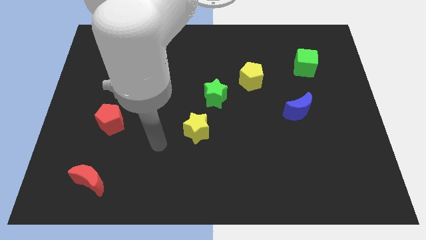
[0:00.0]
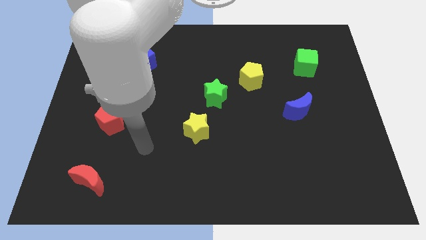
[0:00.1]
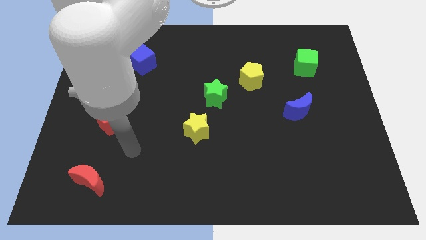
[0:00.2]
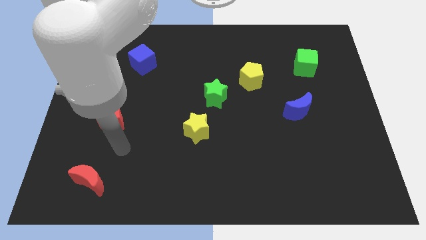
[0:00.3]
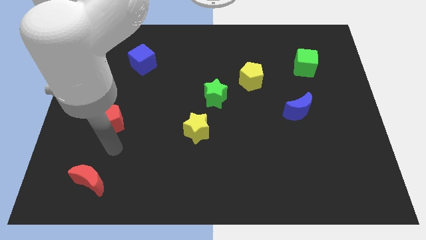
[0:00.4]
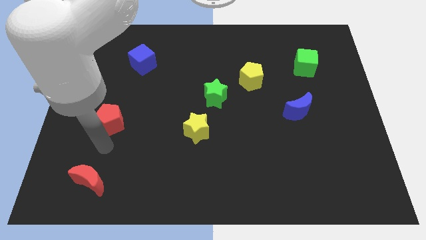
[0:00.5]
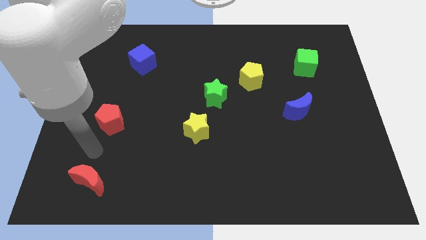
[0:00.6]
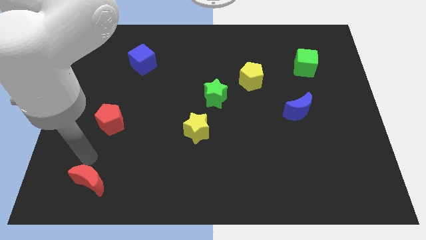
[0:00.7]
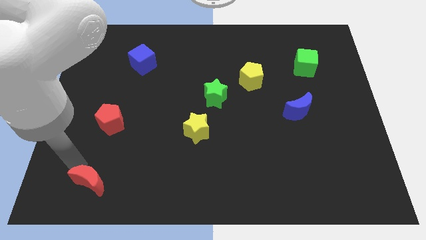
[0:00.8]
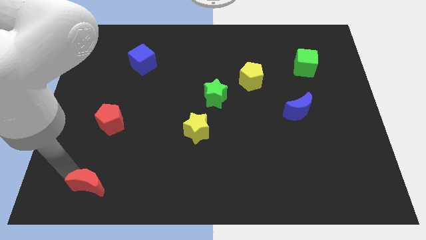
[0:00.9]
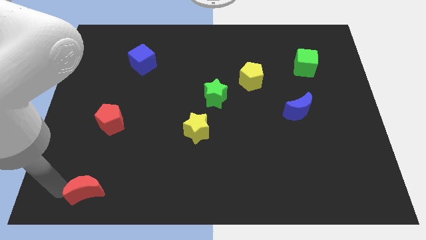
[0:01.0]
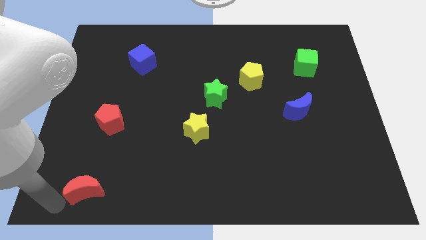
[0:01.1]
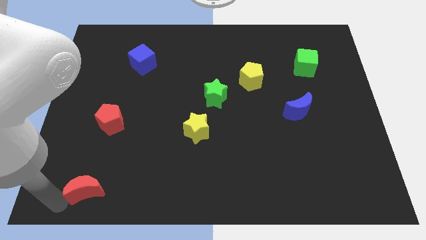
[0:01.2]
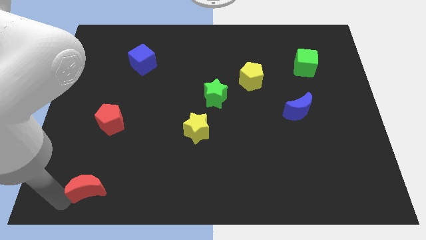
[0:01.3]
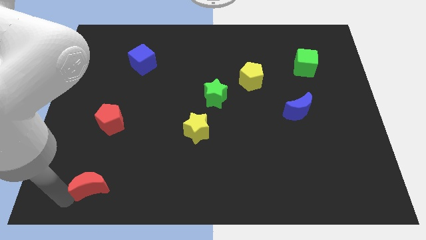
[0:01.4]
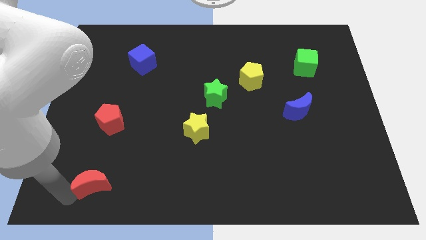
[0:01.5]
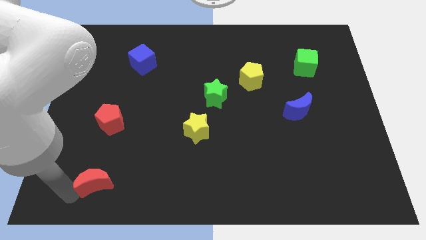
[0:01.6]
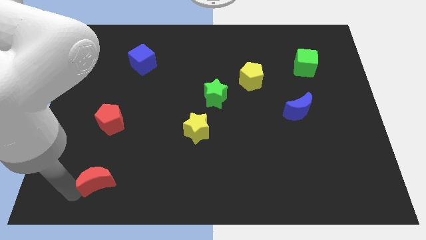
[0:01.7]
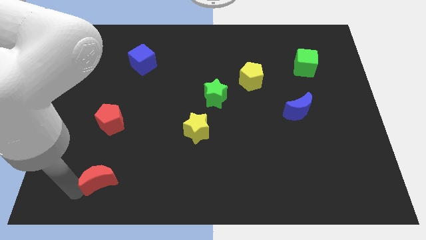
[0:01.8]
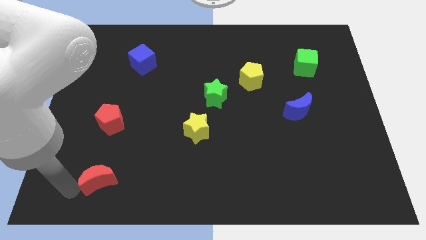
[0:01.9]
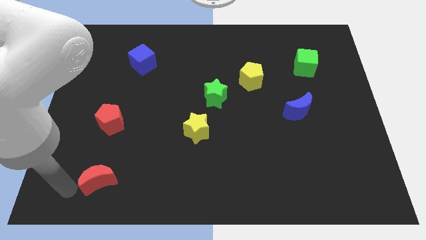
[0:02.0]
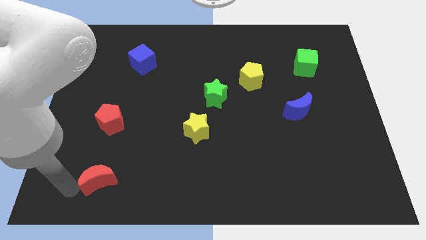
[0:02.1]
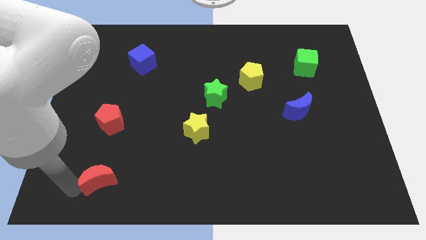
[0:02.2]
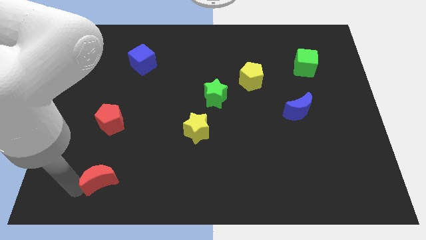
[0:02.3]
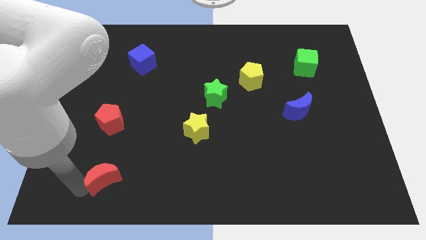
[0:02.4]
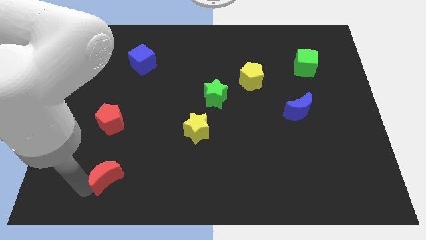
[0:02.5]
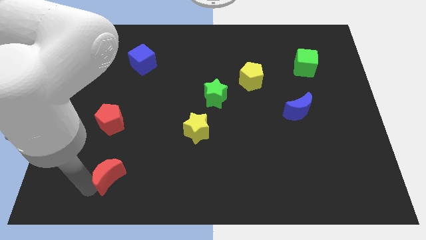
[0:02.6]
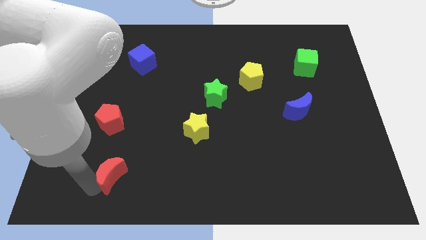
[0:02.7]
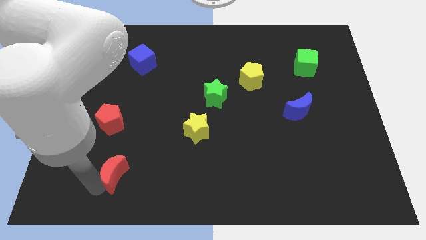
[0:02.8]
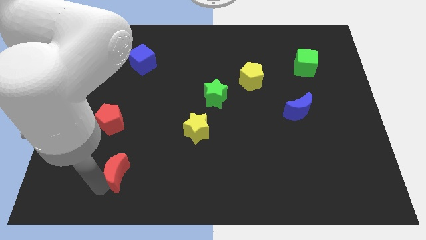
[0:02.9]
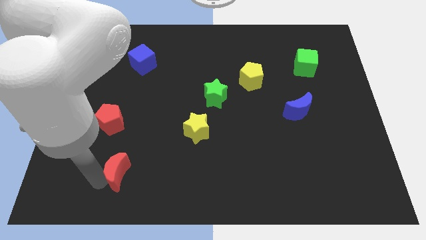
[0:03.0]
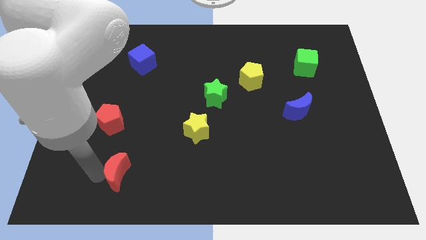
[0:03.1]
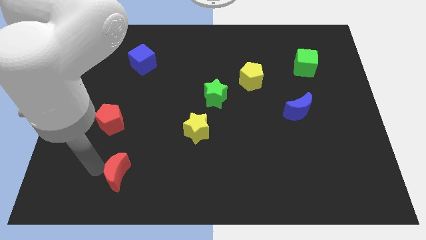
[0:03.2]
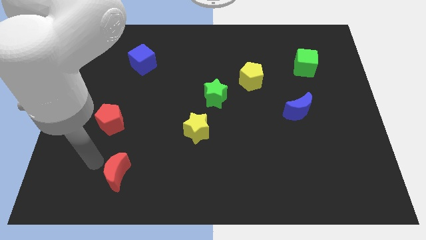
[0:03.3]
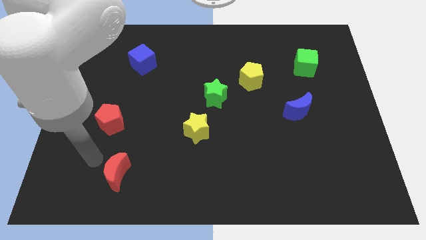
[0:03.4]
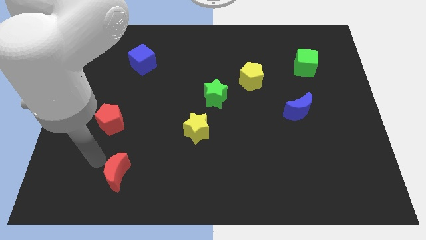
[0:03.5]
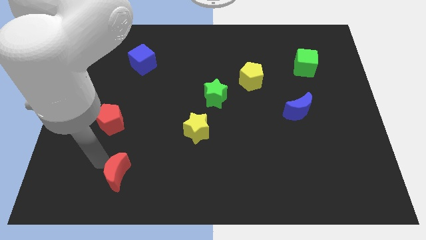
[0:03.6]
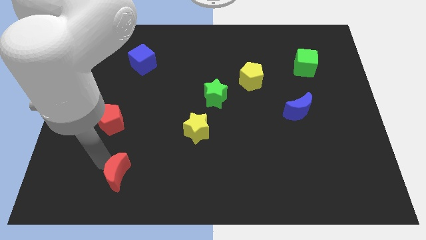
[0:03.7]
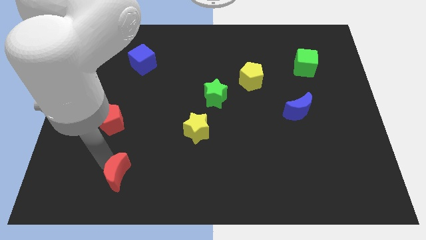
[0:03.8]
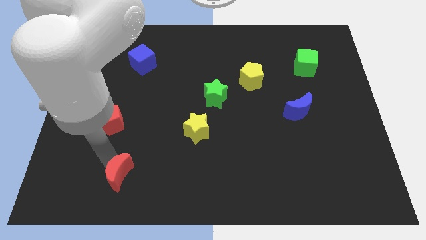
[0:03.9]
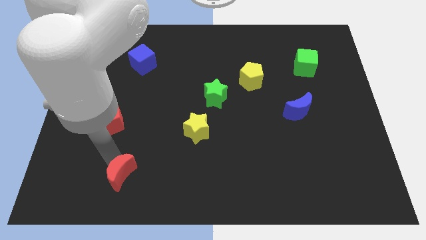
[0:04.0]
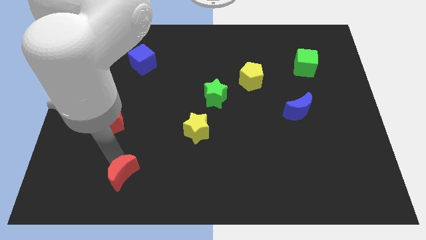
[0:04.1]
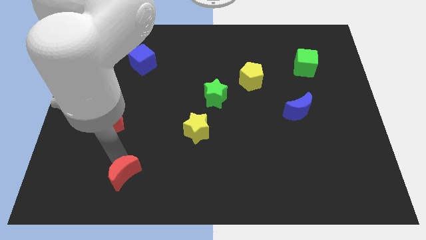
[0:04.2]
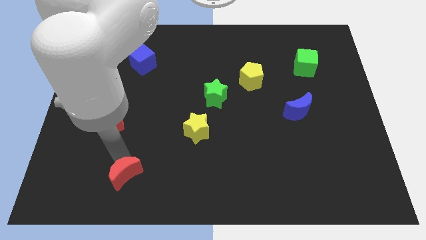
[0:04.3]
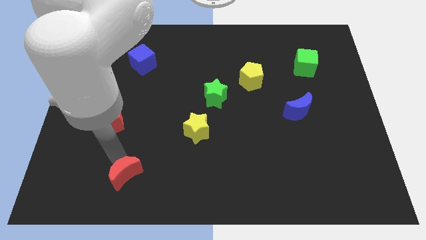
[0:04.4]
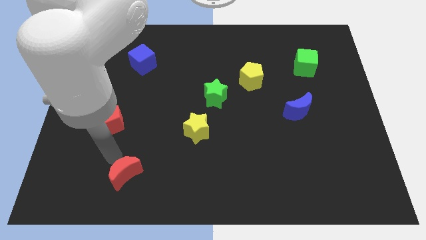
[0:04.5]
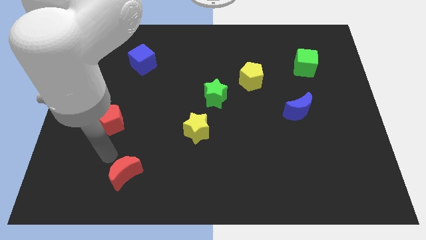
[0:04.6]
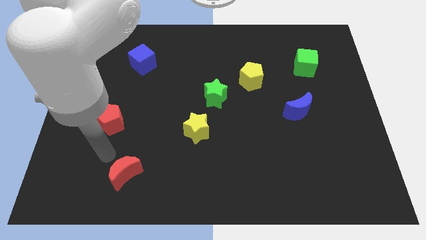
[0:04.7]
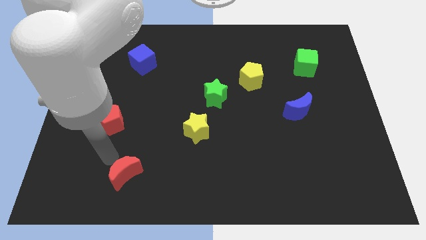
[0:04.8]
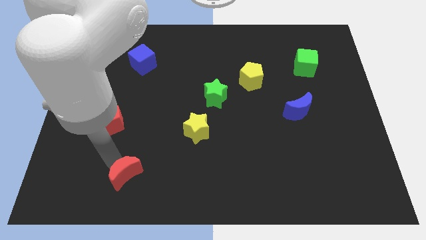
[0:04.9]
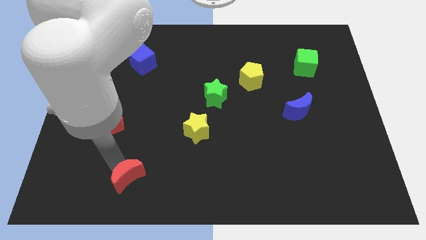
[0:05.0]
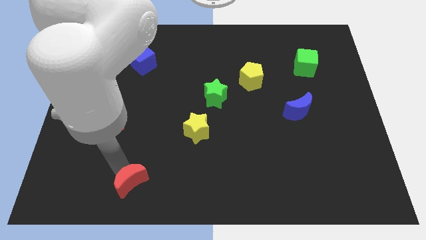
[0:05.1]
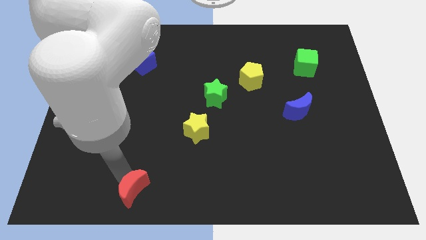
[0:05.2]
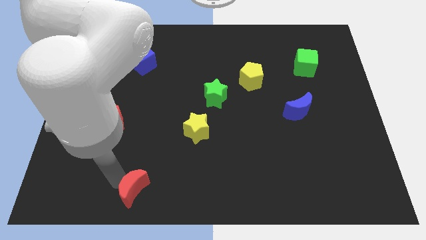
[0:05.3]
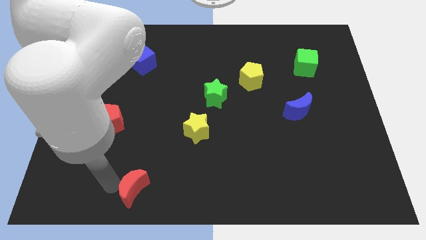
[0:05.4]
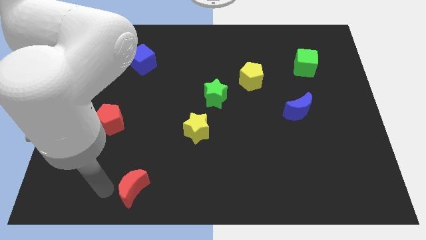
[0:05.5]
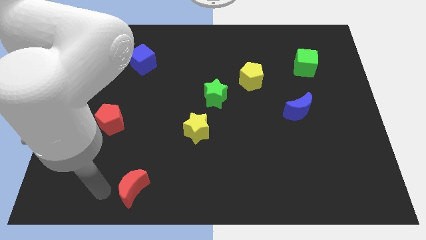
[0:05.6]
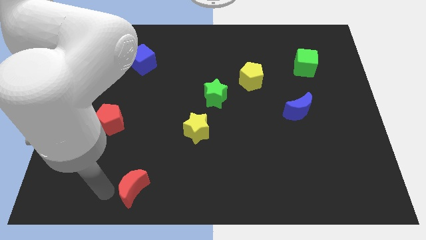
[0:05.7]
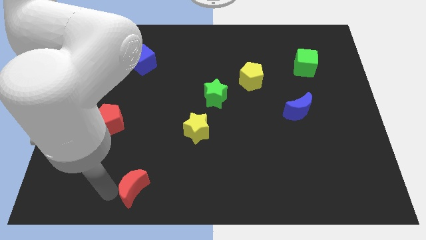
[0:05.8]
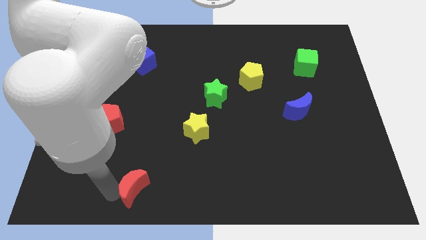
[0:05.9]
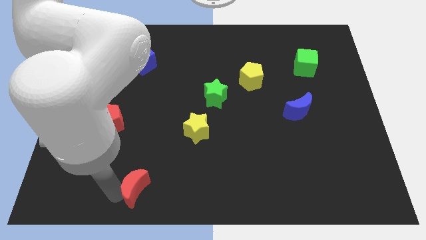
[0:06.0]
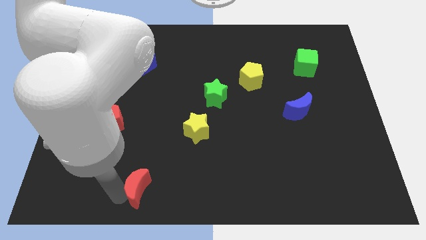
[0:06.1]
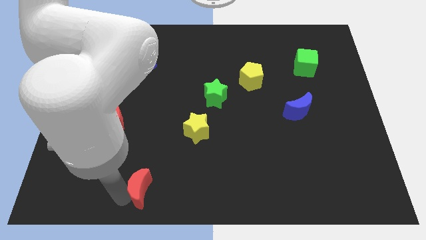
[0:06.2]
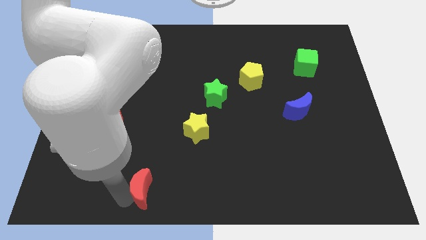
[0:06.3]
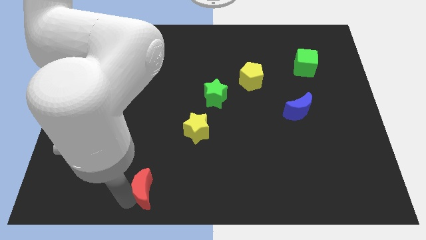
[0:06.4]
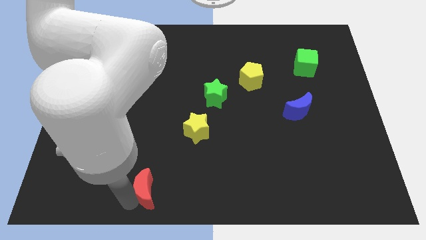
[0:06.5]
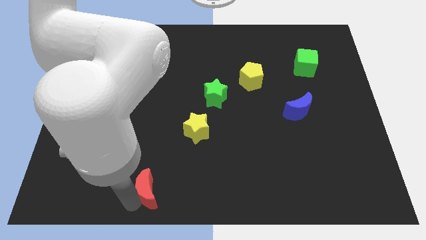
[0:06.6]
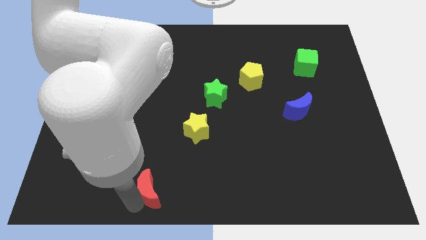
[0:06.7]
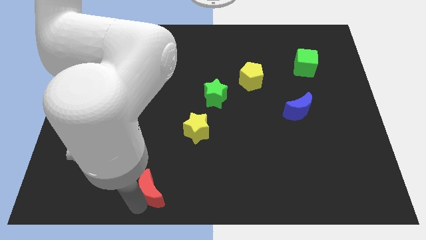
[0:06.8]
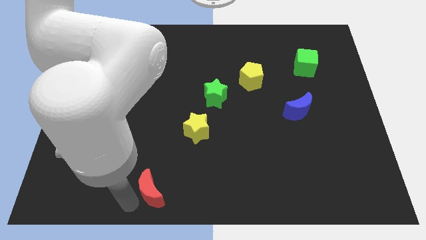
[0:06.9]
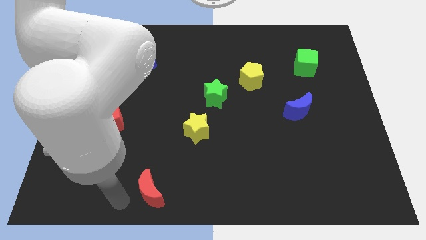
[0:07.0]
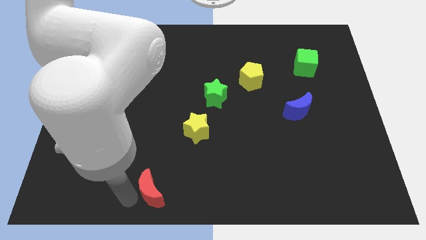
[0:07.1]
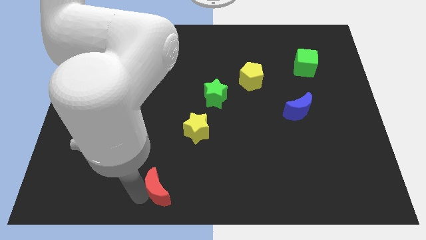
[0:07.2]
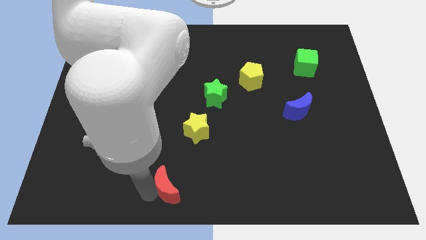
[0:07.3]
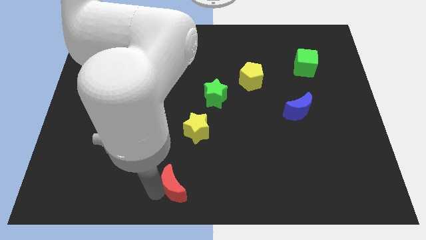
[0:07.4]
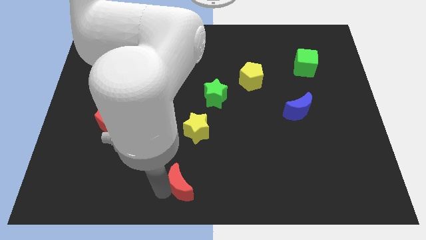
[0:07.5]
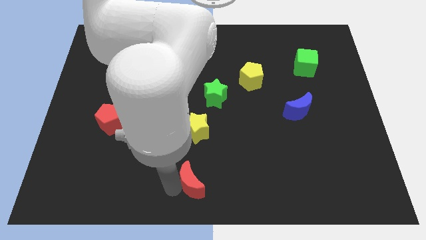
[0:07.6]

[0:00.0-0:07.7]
push the red moon right

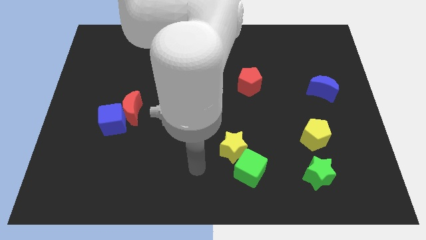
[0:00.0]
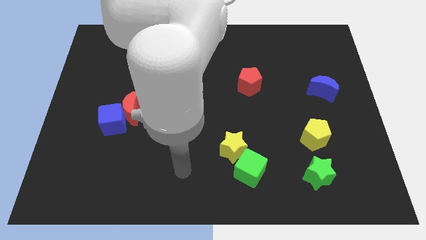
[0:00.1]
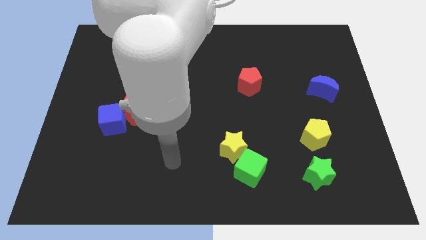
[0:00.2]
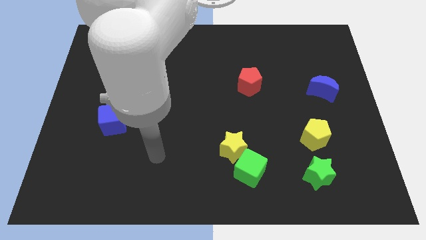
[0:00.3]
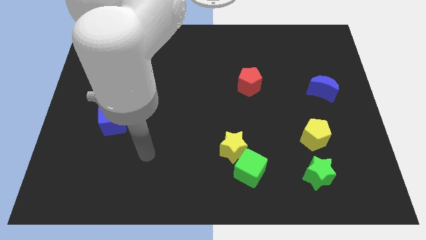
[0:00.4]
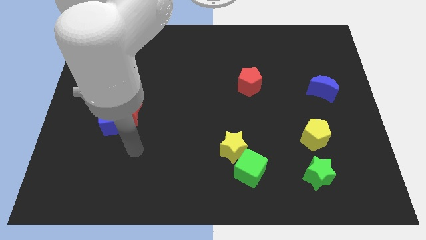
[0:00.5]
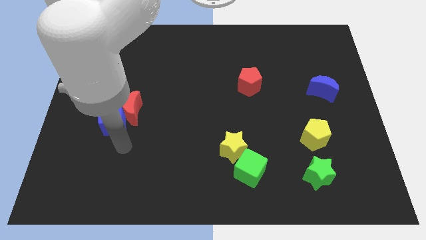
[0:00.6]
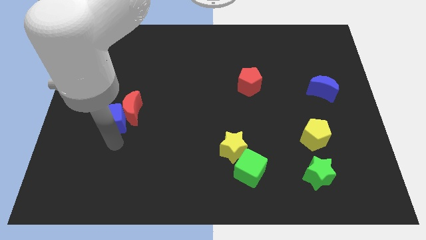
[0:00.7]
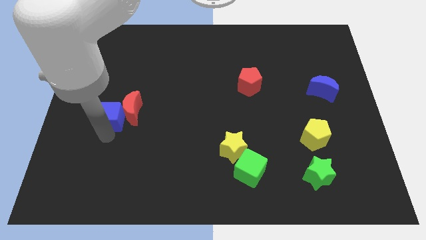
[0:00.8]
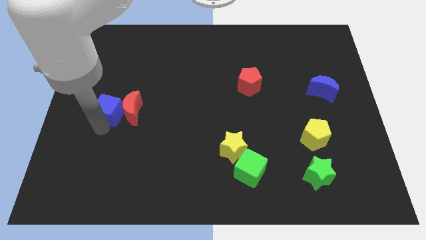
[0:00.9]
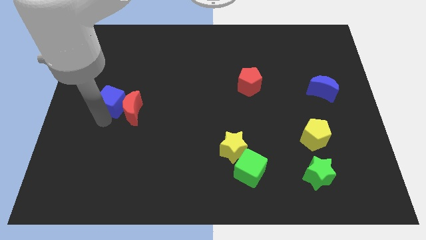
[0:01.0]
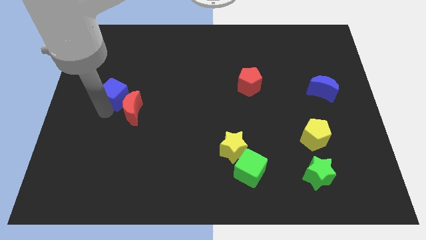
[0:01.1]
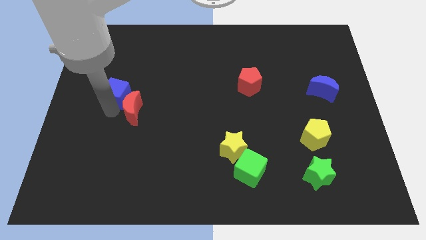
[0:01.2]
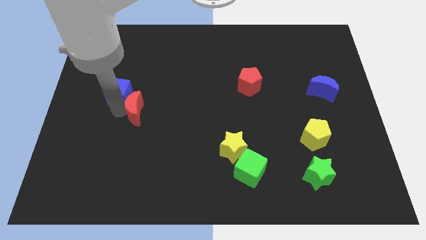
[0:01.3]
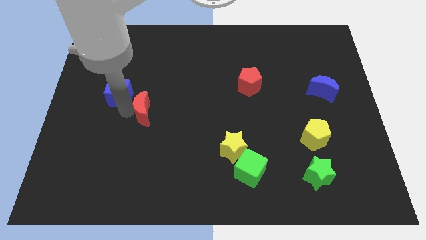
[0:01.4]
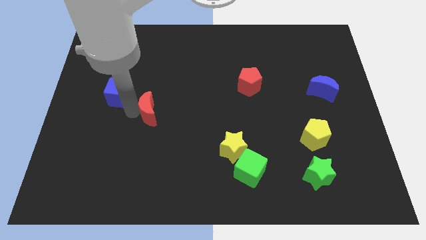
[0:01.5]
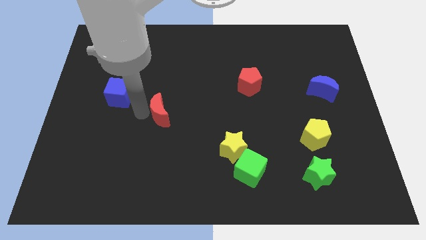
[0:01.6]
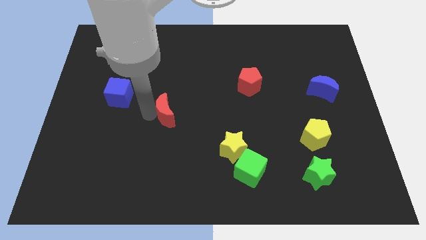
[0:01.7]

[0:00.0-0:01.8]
move the red moon to the right a bit
